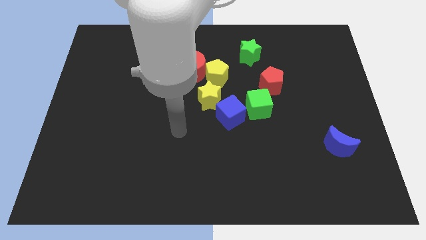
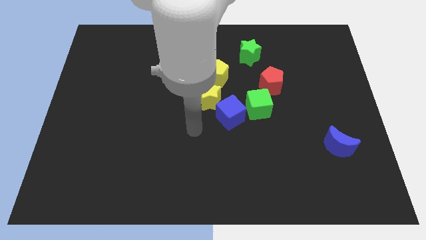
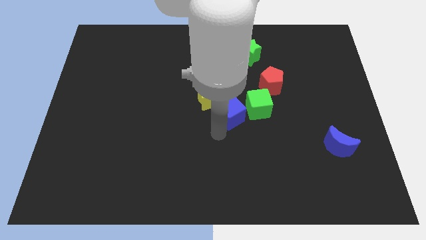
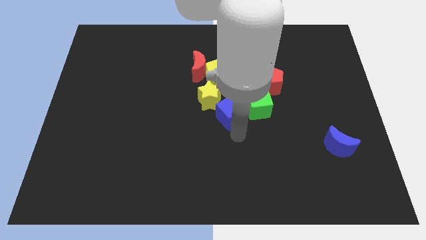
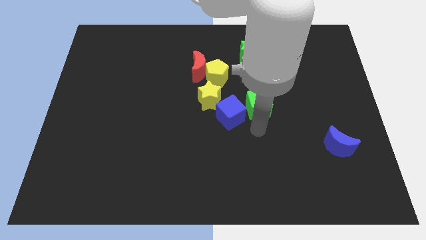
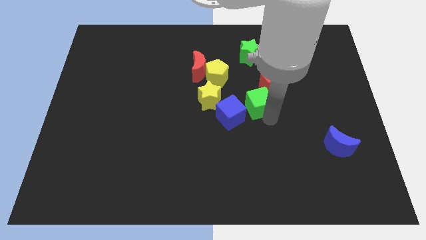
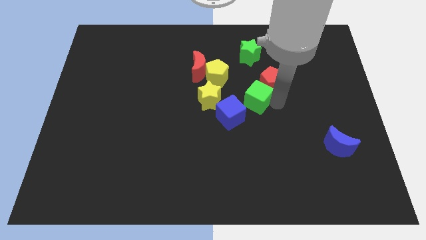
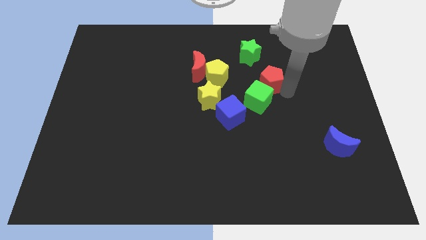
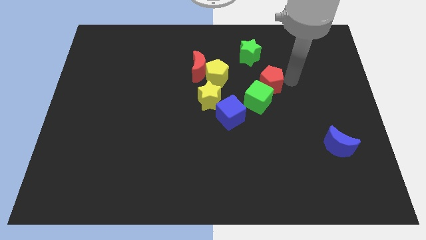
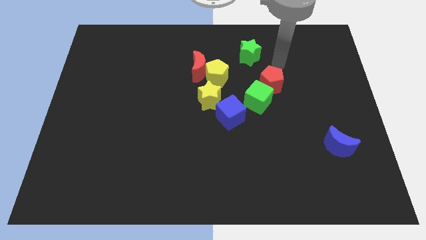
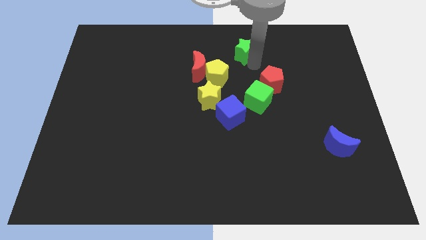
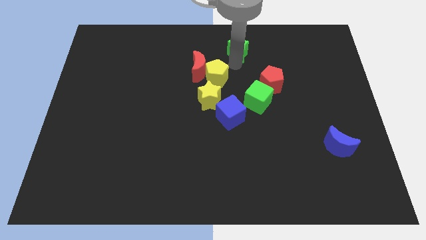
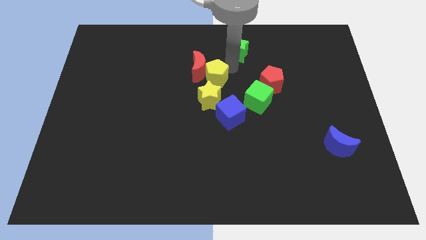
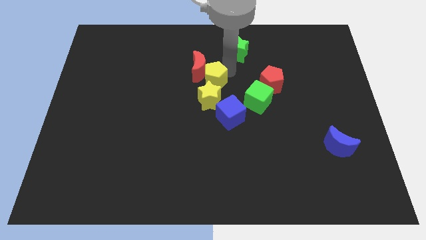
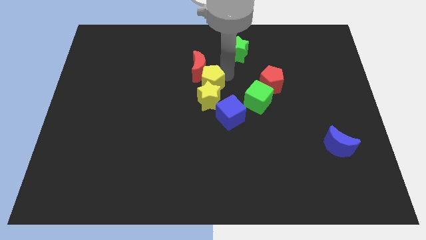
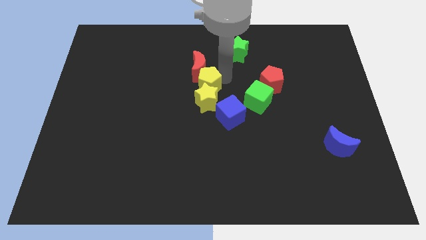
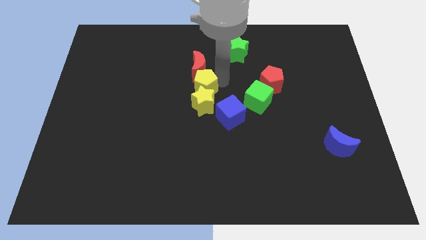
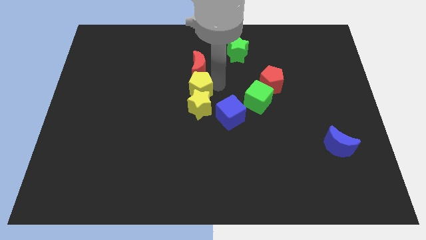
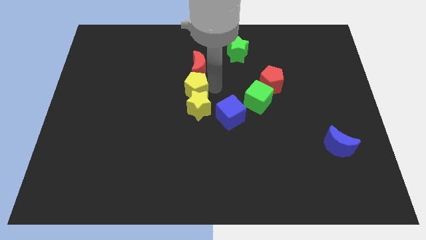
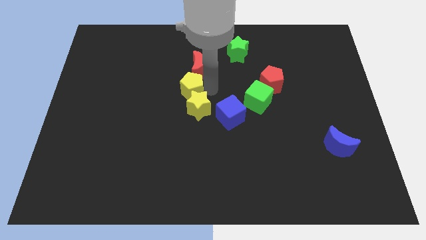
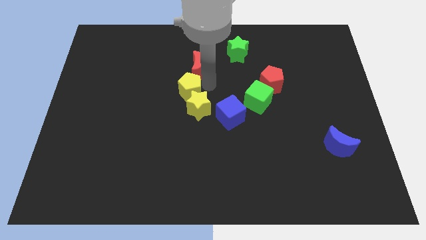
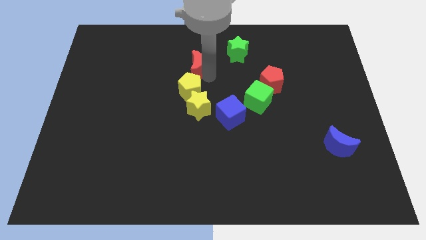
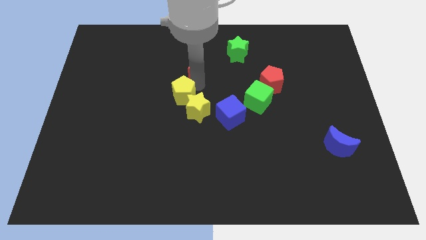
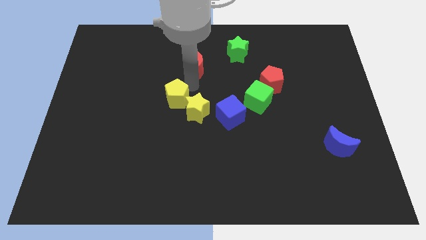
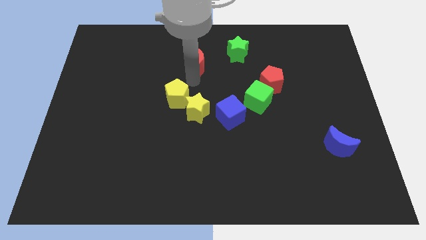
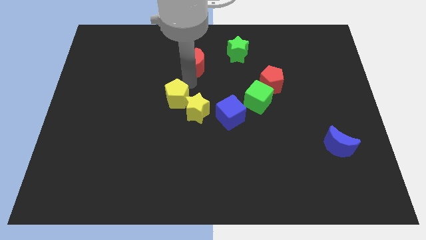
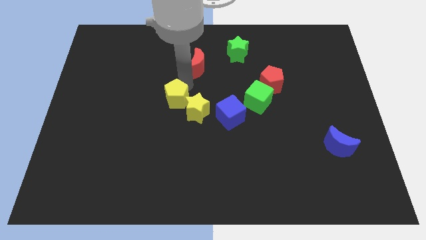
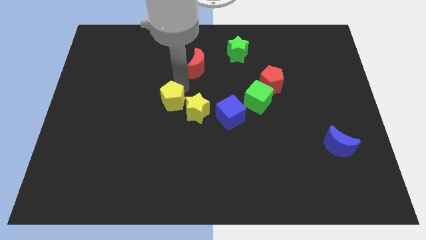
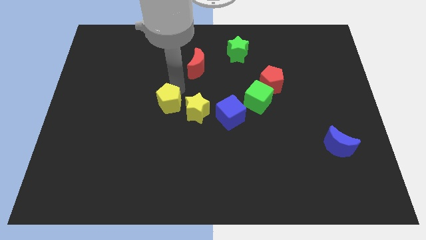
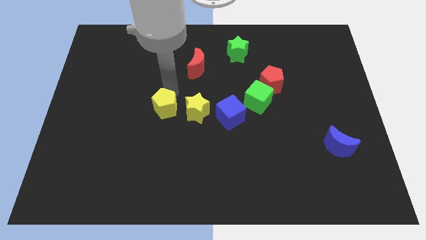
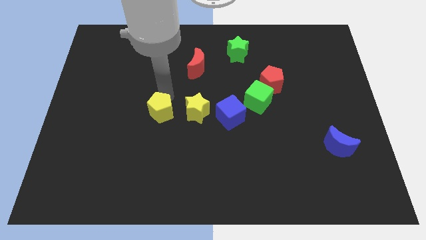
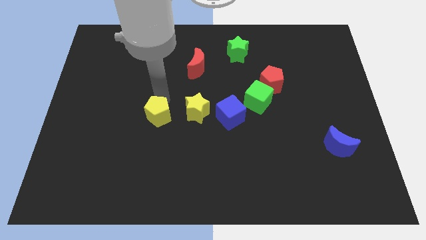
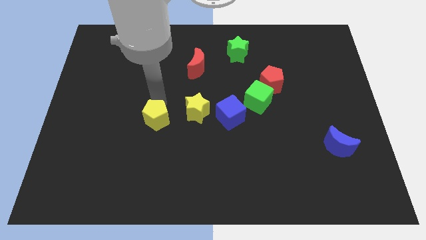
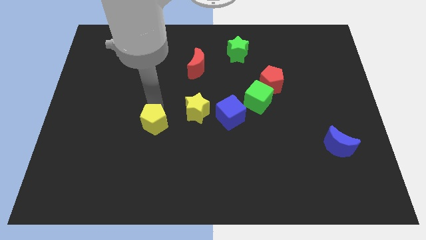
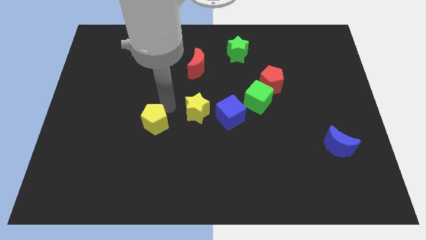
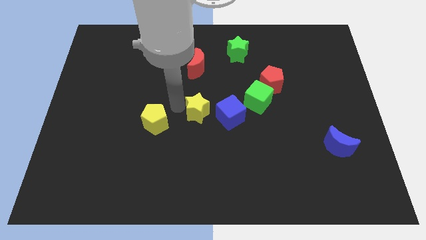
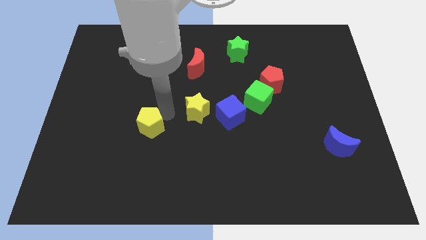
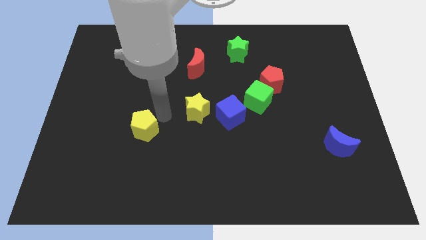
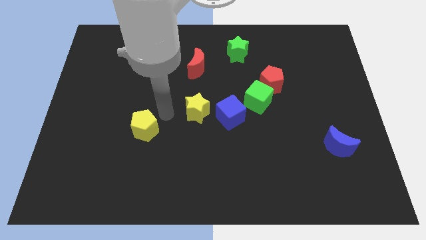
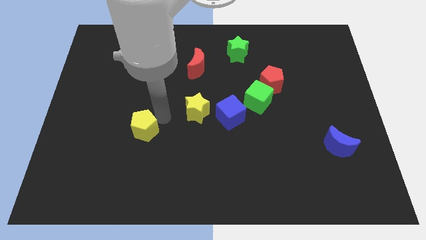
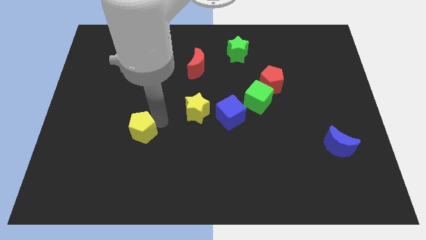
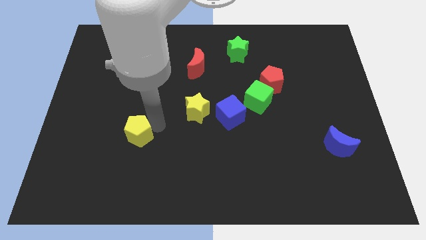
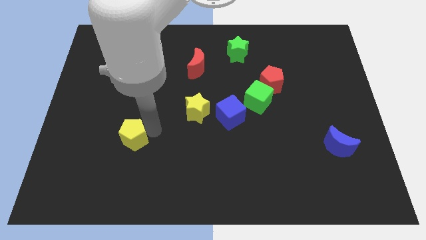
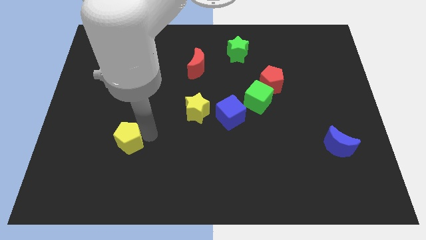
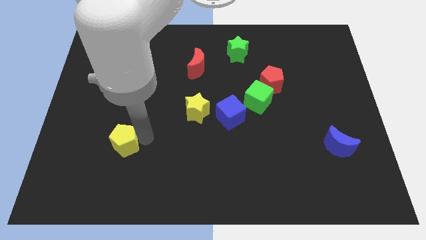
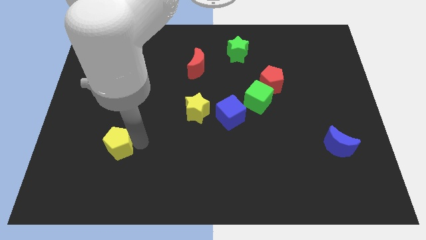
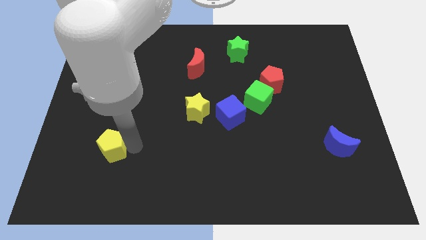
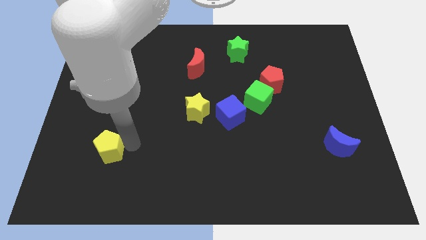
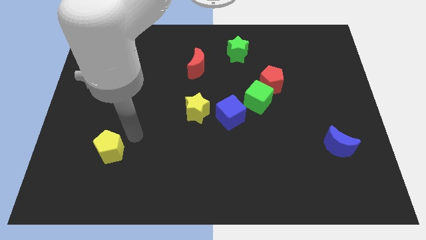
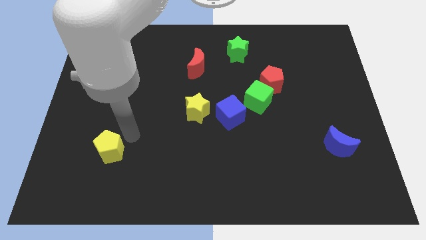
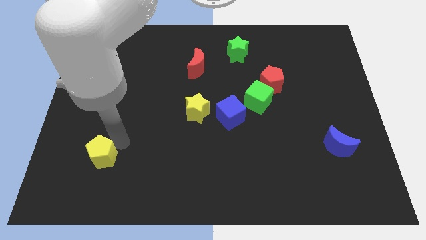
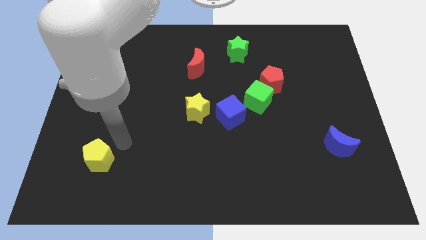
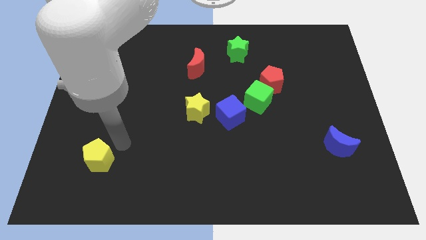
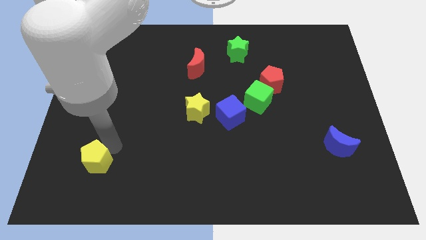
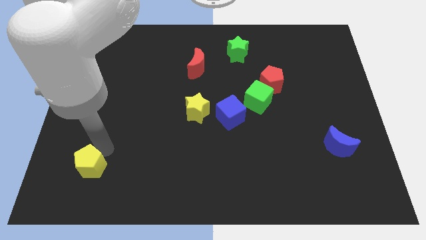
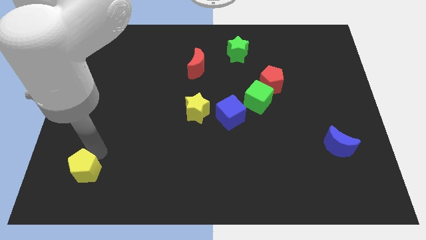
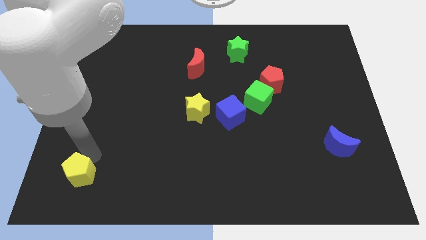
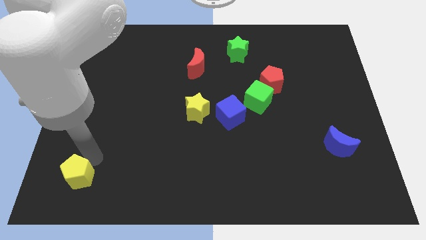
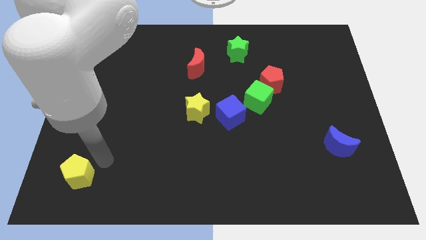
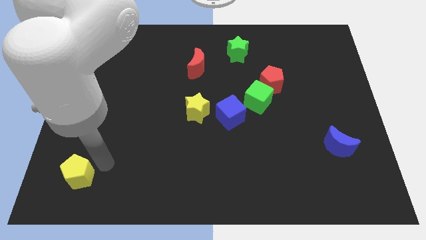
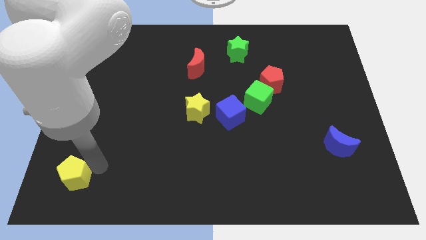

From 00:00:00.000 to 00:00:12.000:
put the yellow pentagon to the bottom left corner

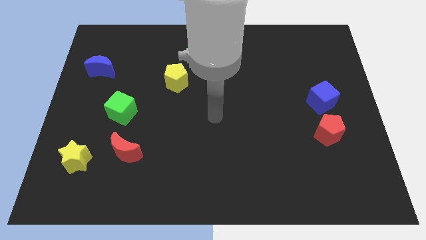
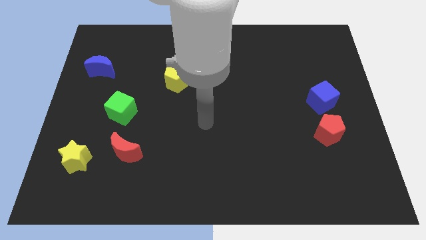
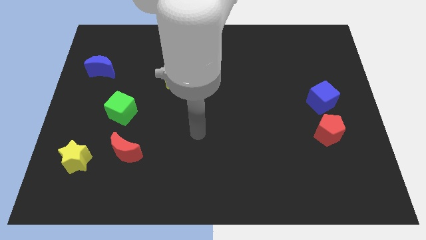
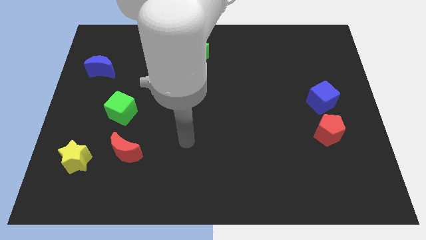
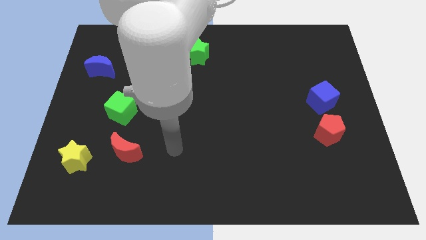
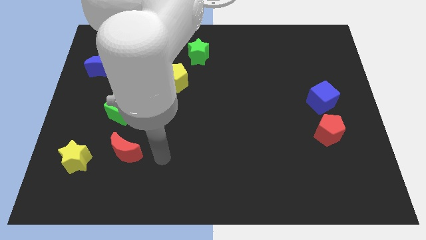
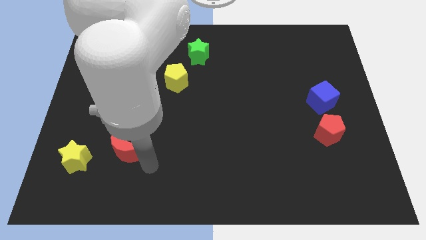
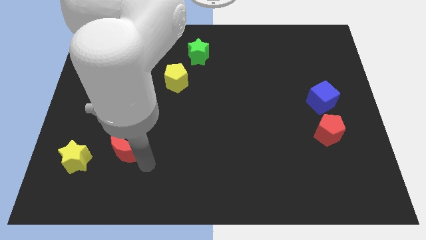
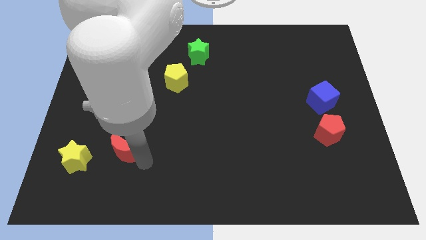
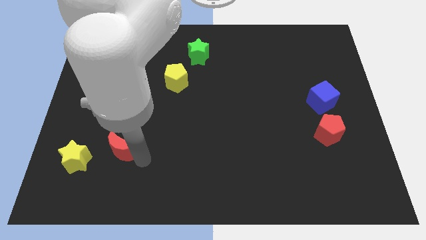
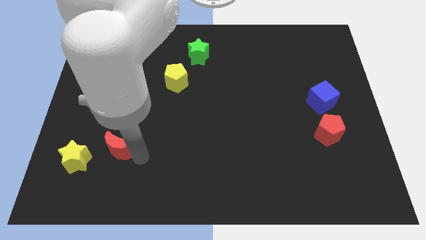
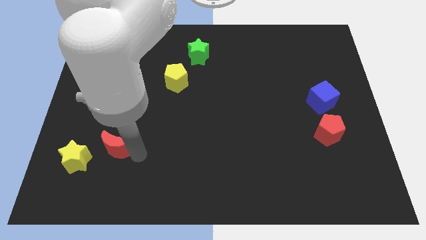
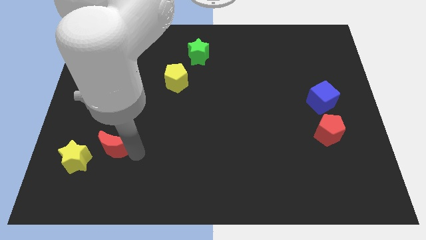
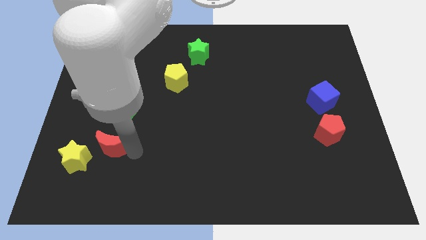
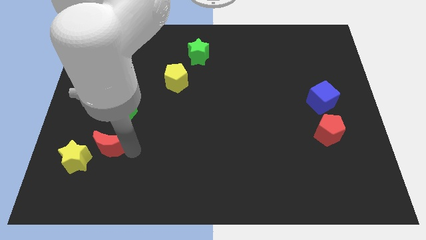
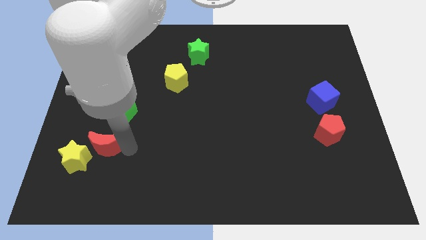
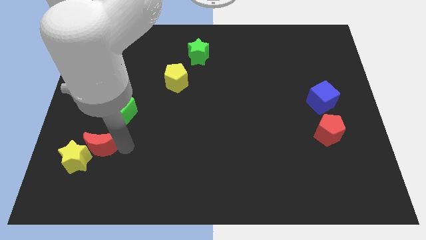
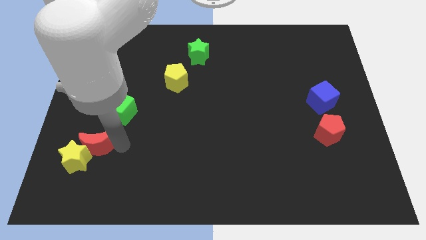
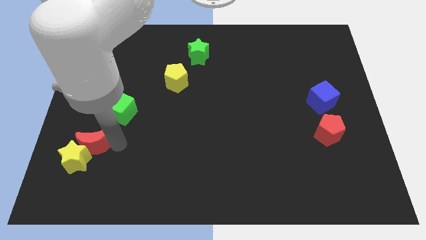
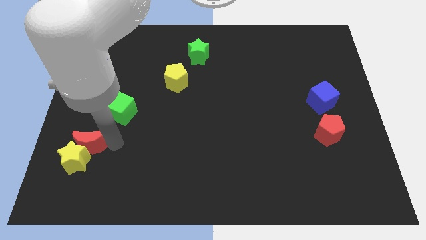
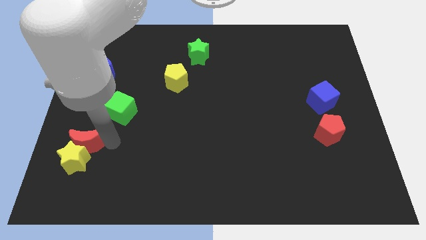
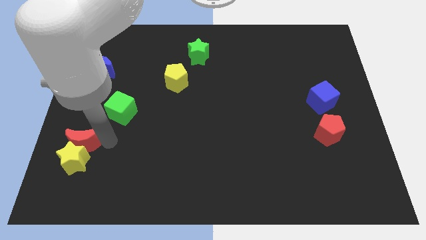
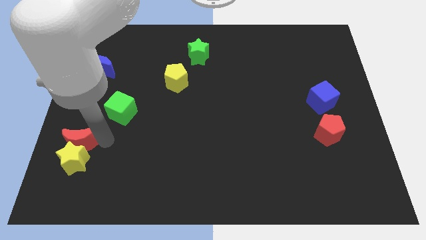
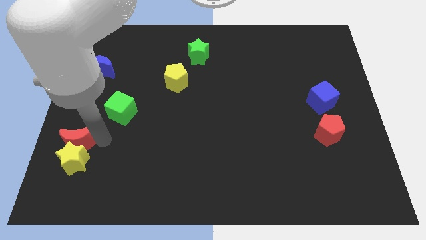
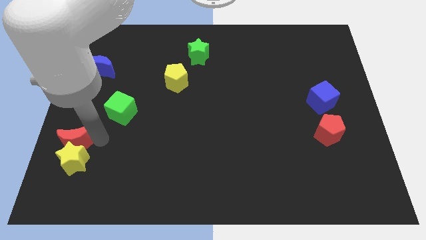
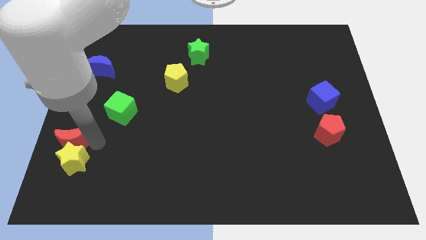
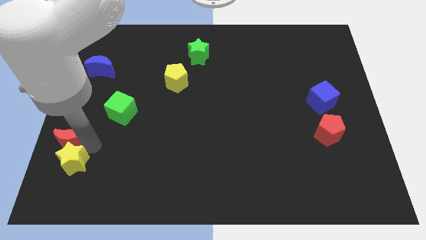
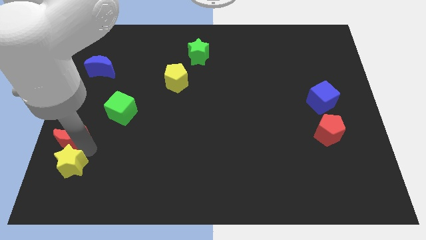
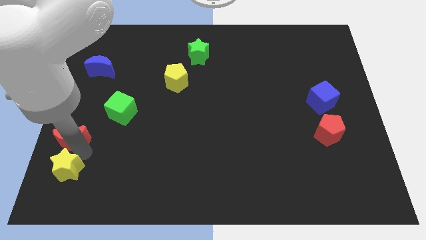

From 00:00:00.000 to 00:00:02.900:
slide the red moon to the left side of the board
